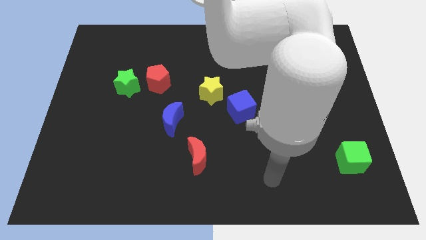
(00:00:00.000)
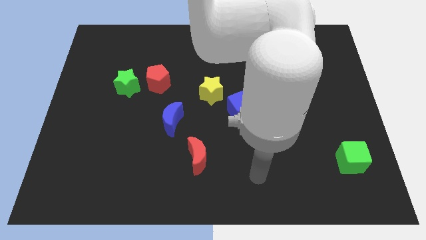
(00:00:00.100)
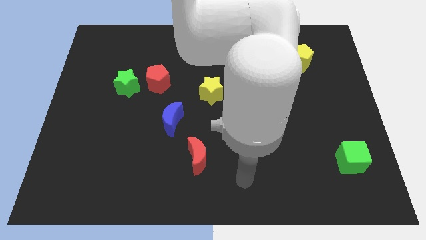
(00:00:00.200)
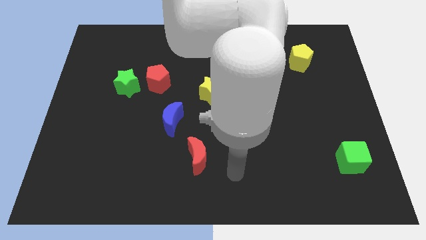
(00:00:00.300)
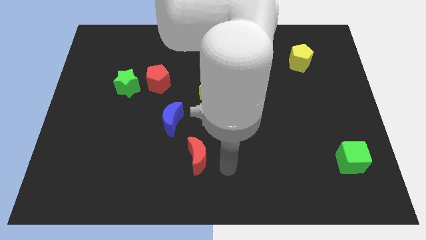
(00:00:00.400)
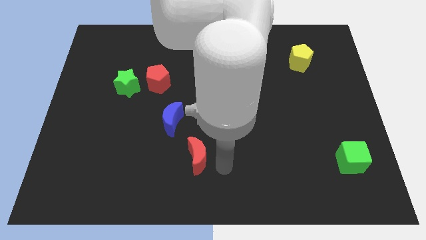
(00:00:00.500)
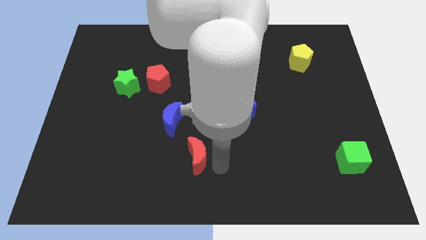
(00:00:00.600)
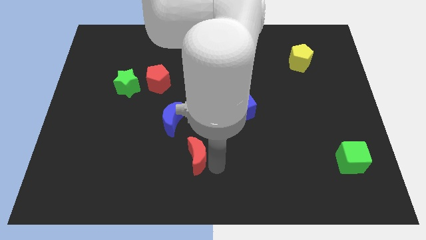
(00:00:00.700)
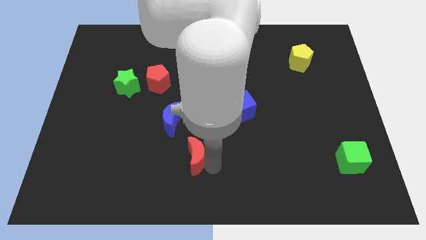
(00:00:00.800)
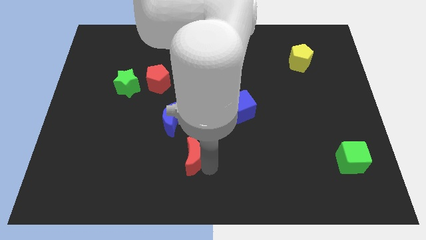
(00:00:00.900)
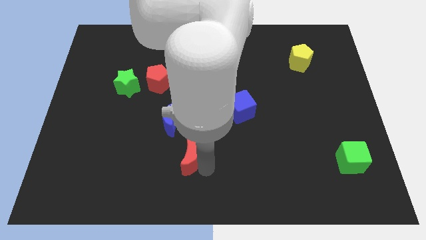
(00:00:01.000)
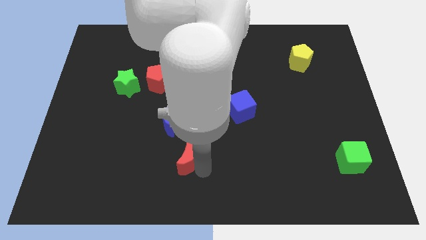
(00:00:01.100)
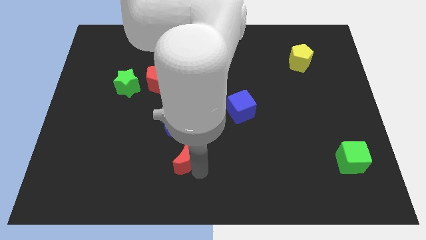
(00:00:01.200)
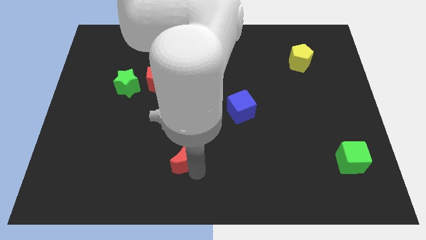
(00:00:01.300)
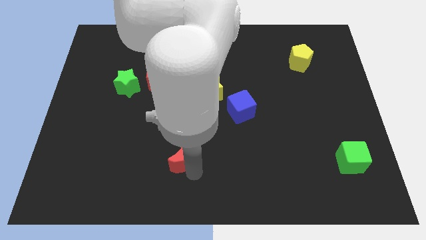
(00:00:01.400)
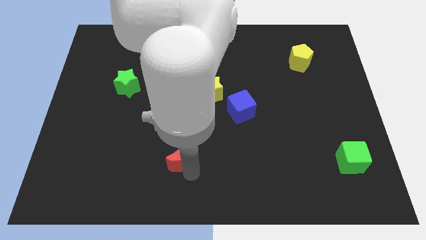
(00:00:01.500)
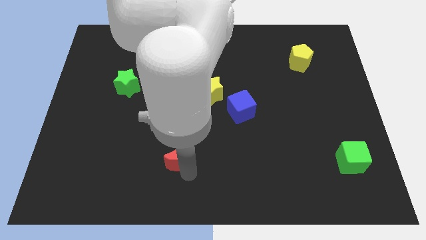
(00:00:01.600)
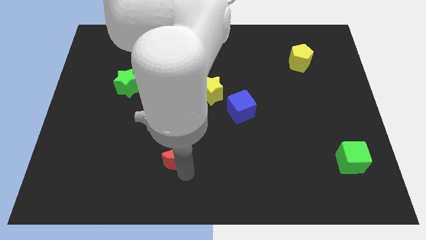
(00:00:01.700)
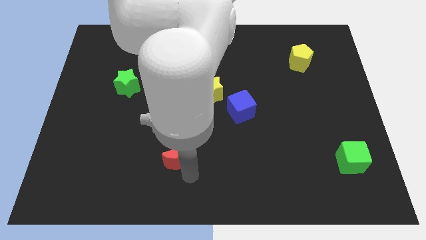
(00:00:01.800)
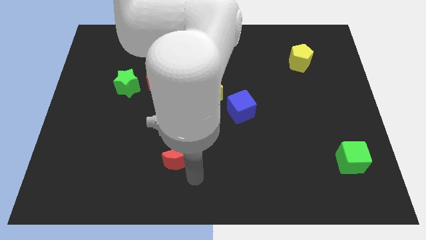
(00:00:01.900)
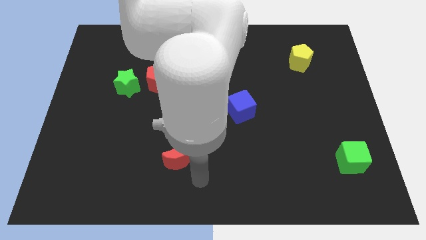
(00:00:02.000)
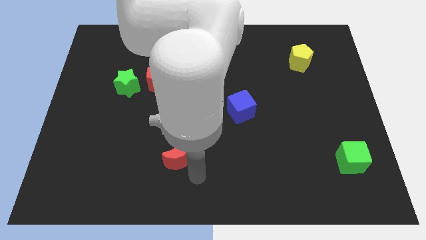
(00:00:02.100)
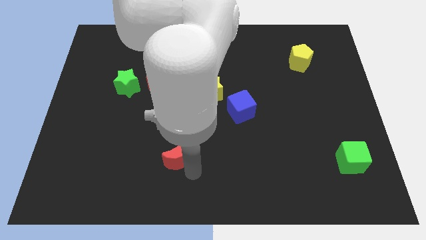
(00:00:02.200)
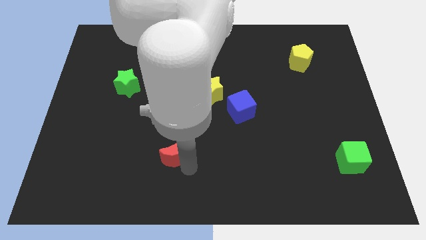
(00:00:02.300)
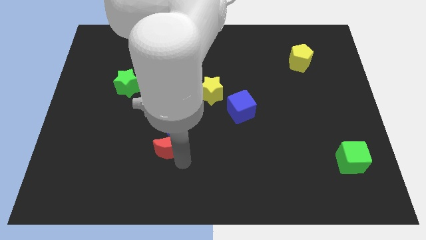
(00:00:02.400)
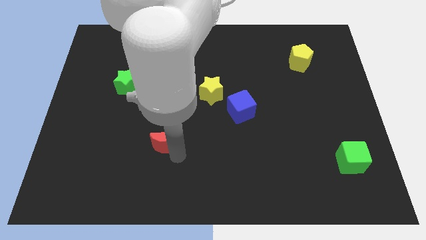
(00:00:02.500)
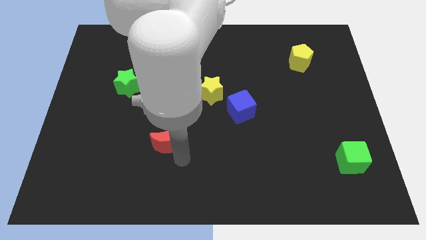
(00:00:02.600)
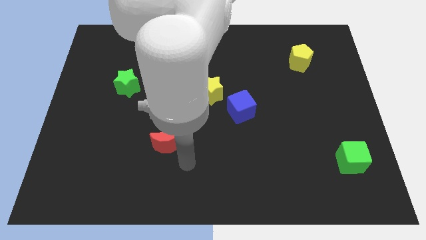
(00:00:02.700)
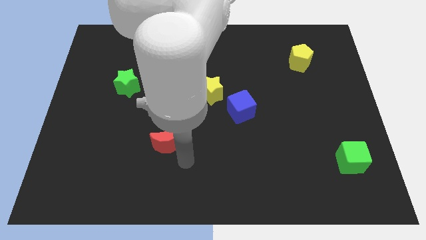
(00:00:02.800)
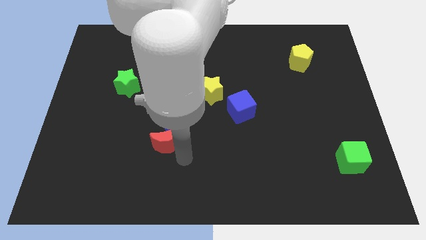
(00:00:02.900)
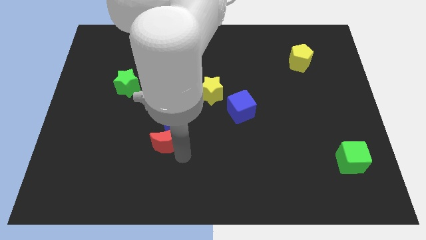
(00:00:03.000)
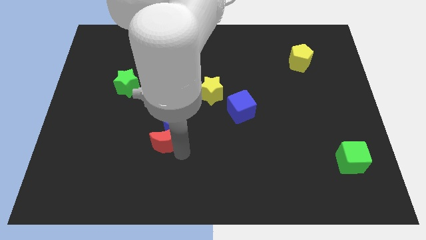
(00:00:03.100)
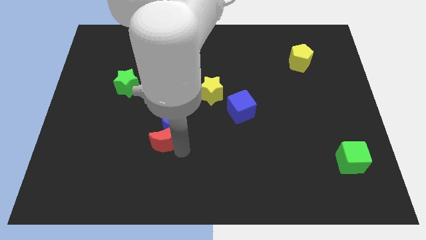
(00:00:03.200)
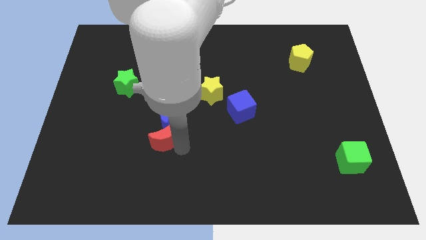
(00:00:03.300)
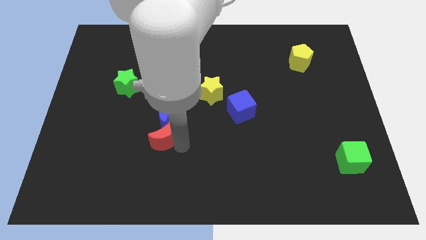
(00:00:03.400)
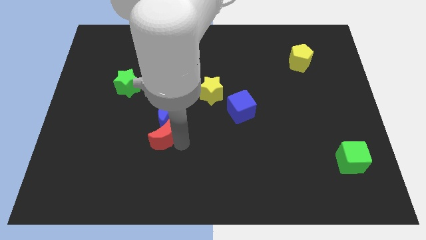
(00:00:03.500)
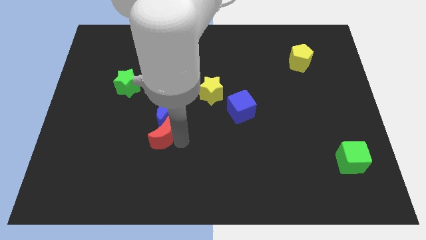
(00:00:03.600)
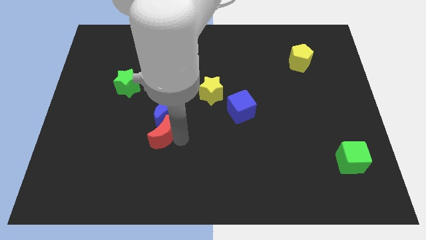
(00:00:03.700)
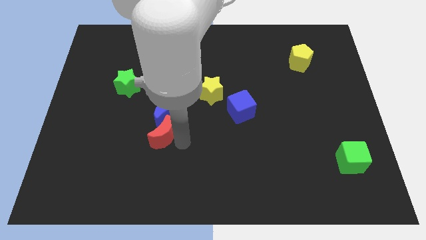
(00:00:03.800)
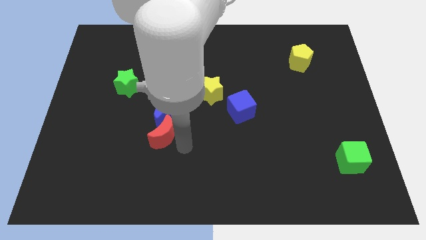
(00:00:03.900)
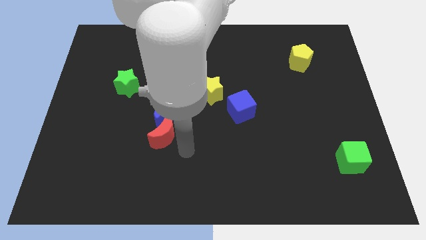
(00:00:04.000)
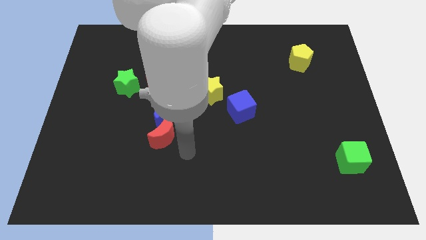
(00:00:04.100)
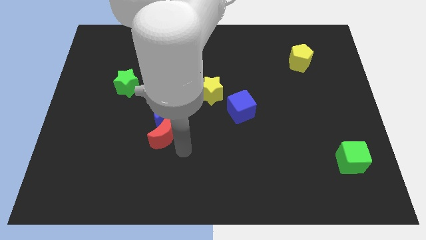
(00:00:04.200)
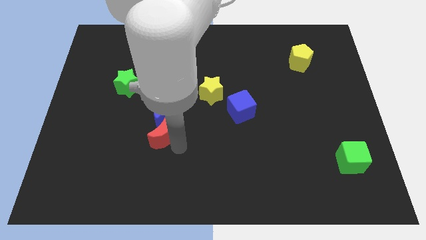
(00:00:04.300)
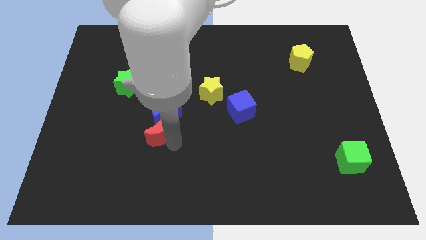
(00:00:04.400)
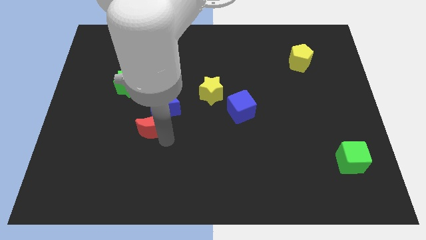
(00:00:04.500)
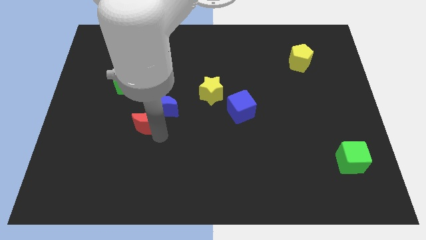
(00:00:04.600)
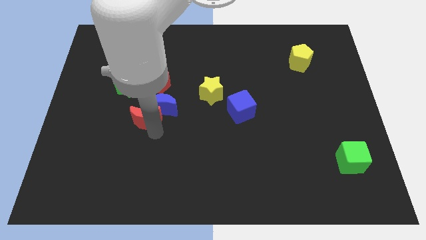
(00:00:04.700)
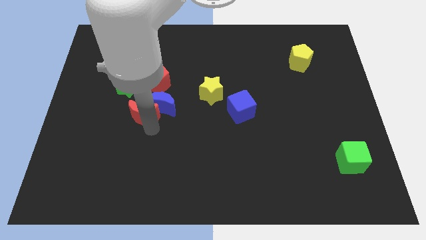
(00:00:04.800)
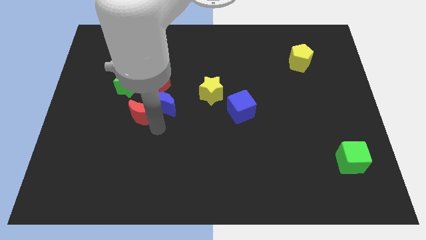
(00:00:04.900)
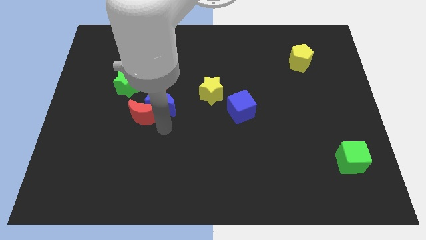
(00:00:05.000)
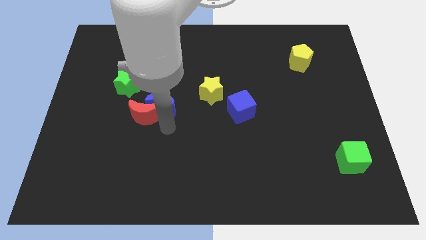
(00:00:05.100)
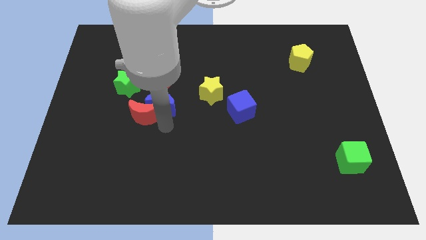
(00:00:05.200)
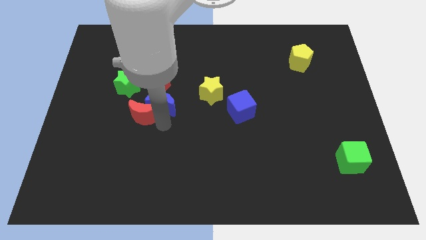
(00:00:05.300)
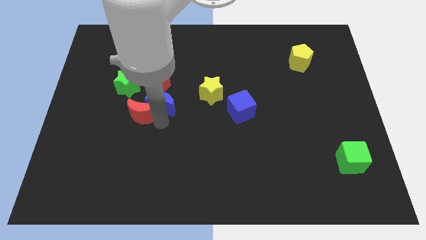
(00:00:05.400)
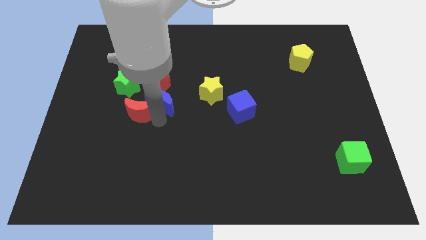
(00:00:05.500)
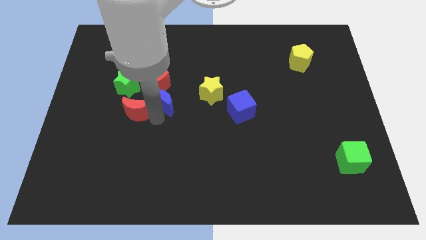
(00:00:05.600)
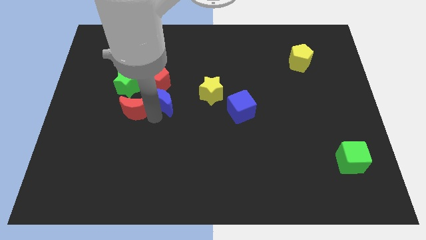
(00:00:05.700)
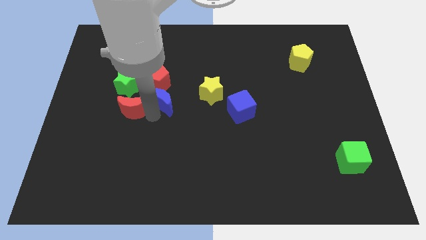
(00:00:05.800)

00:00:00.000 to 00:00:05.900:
push the red moon diagonally up and to the left

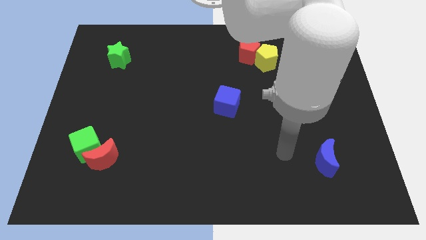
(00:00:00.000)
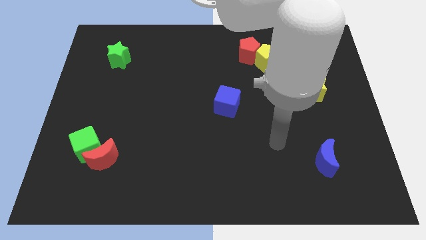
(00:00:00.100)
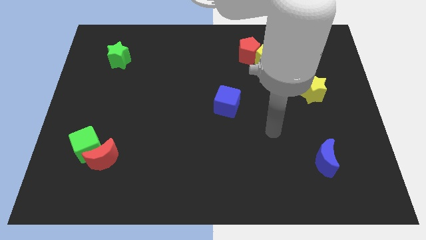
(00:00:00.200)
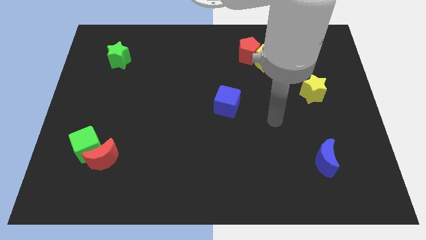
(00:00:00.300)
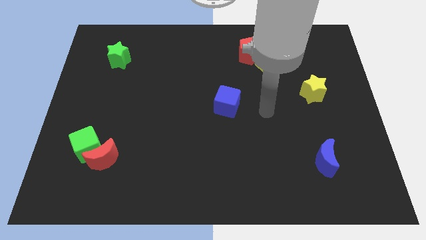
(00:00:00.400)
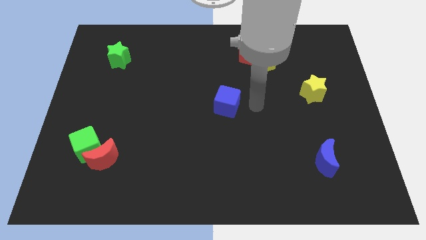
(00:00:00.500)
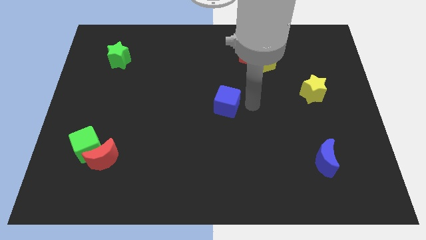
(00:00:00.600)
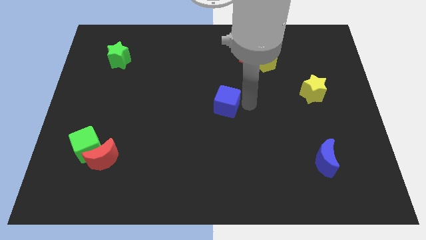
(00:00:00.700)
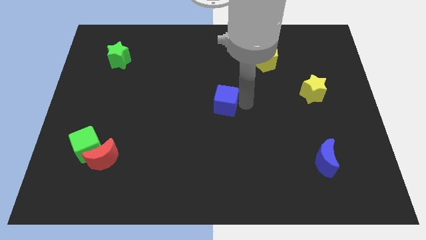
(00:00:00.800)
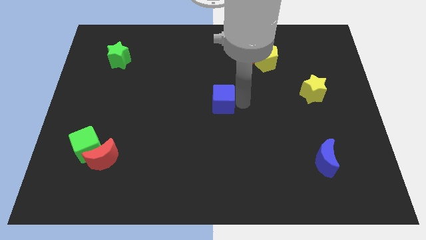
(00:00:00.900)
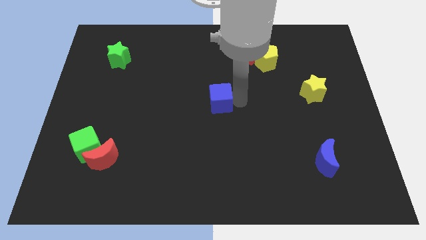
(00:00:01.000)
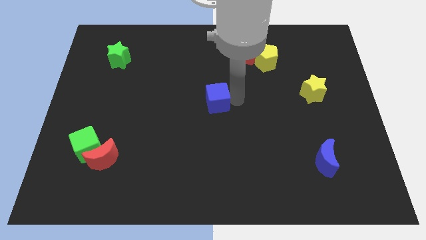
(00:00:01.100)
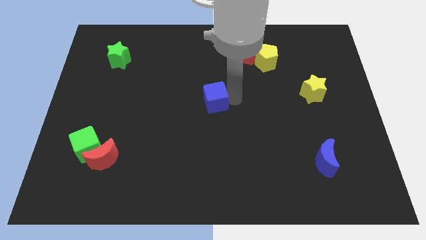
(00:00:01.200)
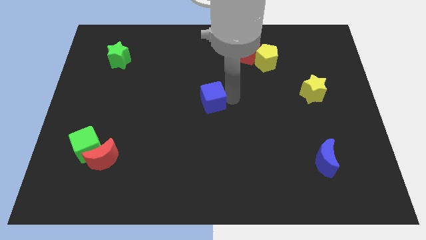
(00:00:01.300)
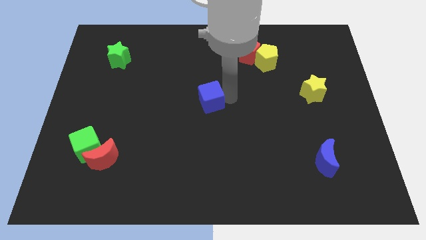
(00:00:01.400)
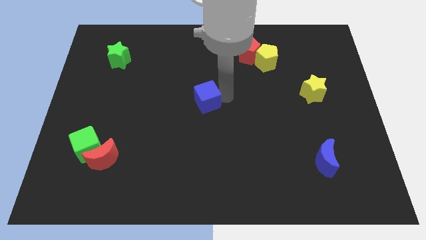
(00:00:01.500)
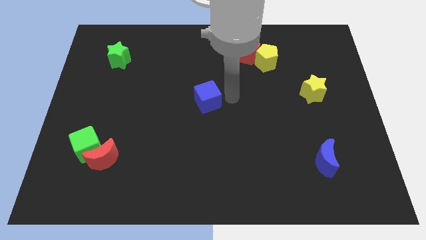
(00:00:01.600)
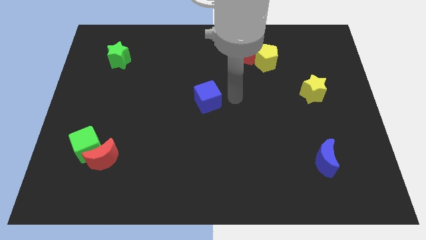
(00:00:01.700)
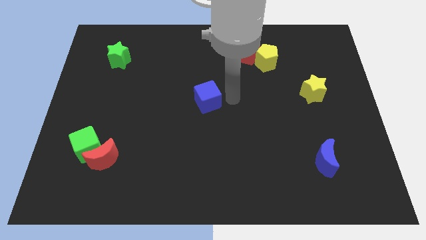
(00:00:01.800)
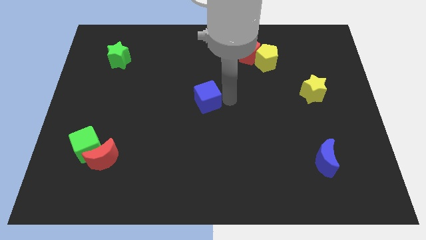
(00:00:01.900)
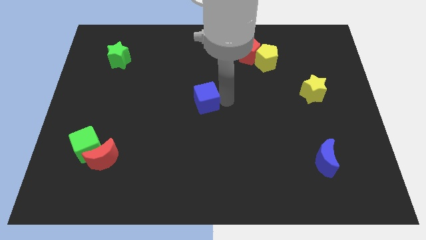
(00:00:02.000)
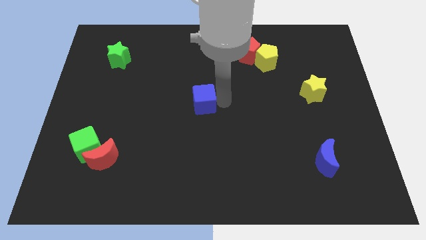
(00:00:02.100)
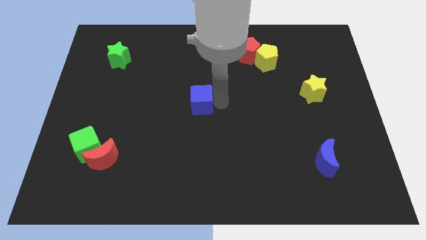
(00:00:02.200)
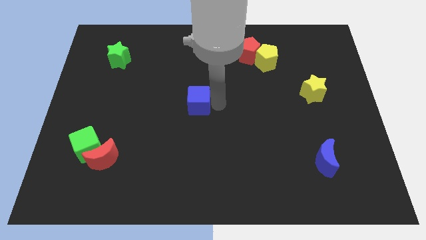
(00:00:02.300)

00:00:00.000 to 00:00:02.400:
move the blue cube to the left a little bit
